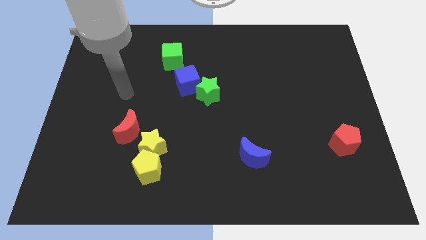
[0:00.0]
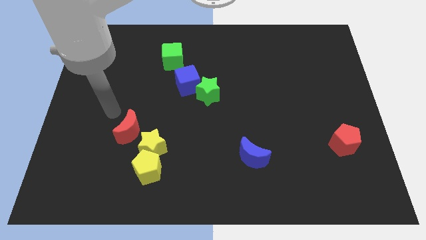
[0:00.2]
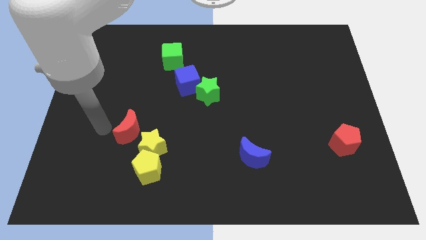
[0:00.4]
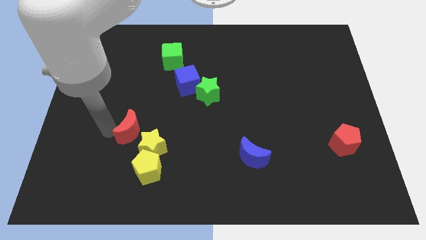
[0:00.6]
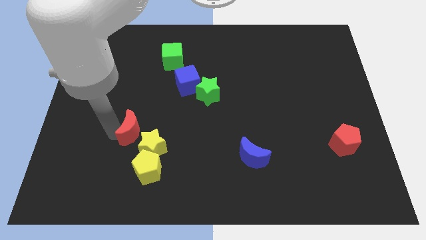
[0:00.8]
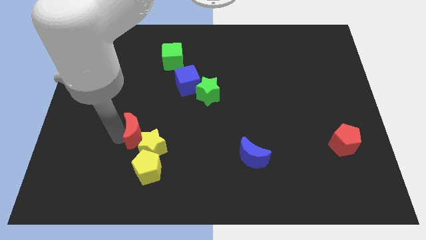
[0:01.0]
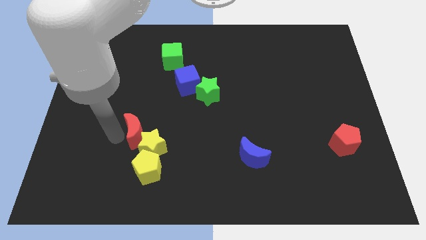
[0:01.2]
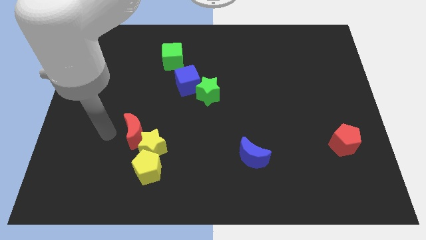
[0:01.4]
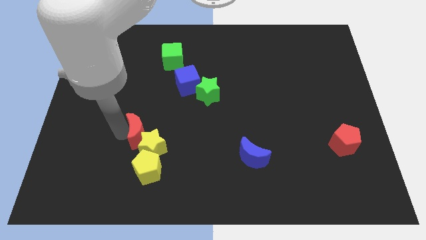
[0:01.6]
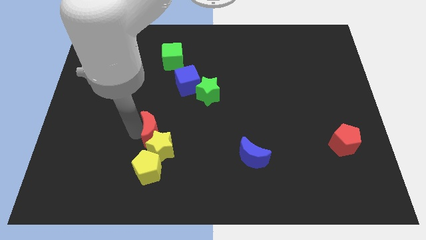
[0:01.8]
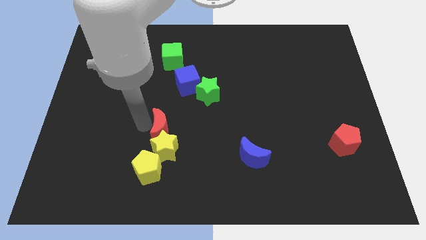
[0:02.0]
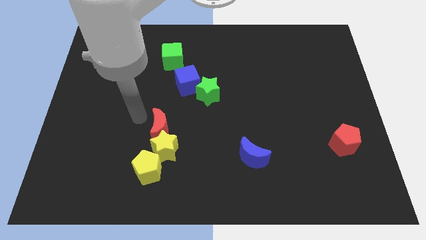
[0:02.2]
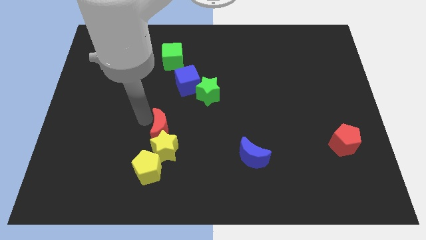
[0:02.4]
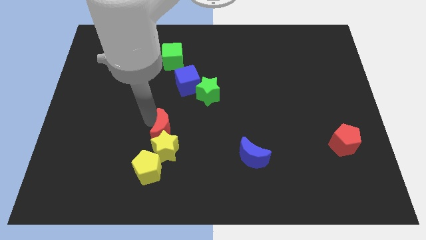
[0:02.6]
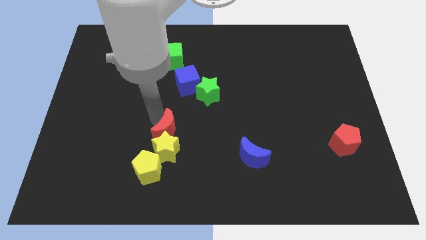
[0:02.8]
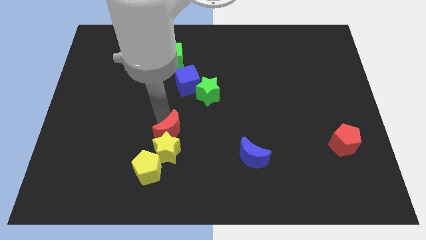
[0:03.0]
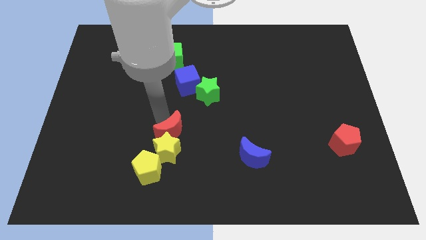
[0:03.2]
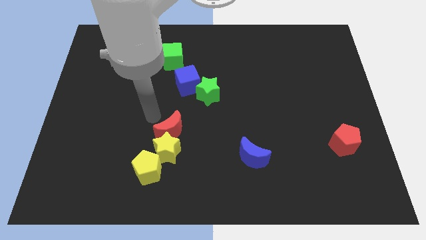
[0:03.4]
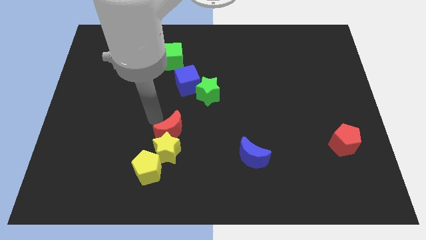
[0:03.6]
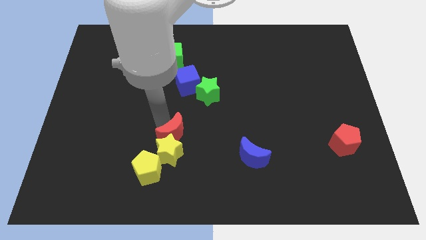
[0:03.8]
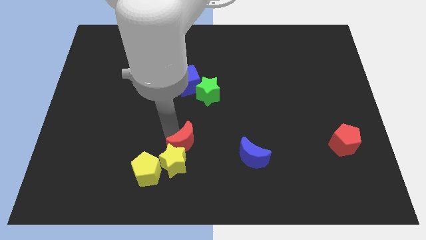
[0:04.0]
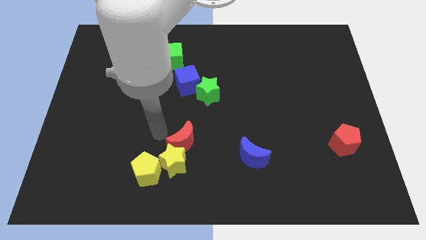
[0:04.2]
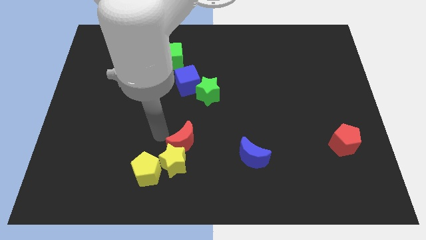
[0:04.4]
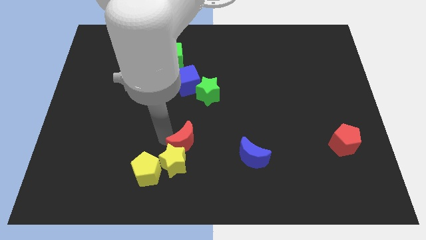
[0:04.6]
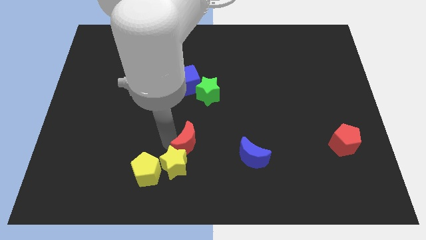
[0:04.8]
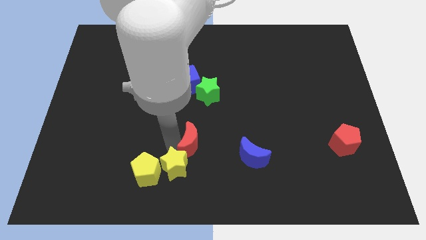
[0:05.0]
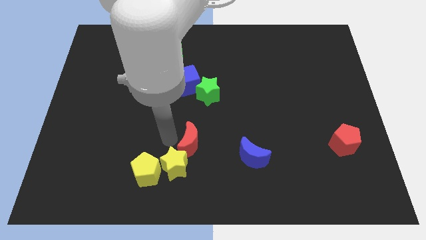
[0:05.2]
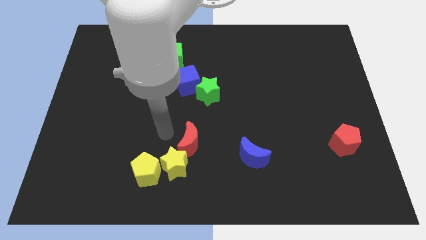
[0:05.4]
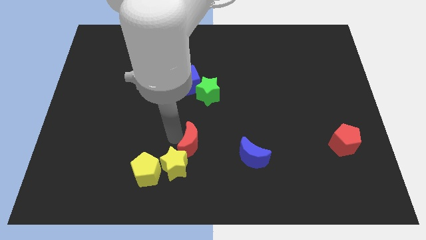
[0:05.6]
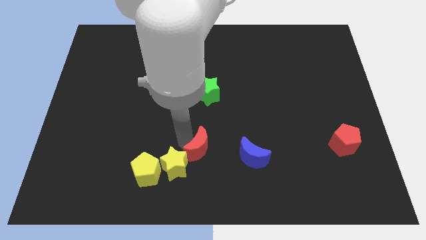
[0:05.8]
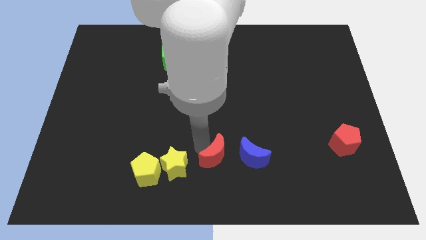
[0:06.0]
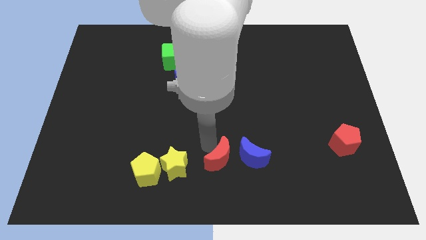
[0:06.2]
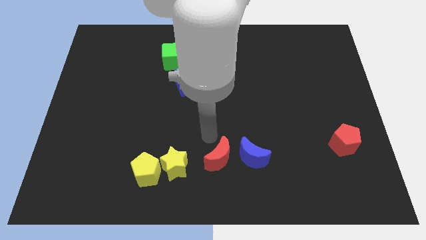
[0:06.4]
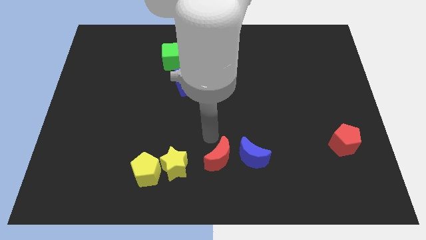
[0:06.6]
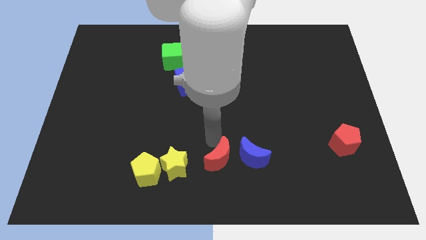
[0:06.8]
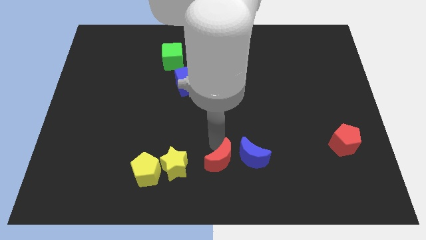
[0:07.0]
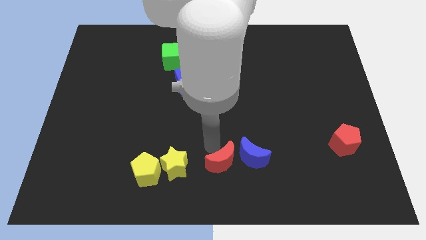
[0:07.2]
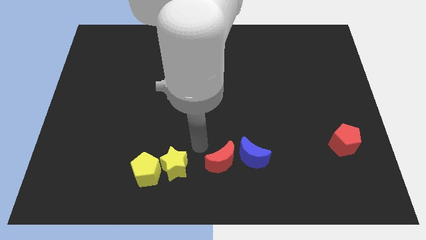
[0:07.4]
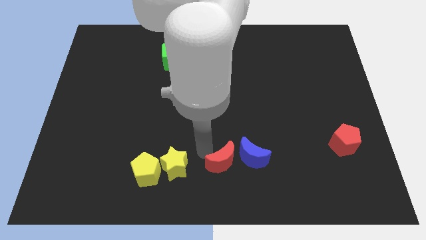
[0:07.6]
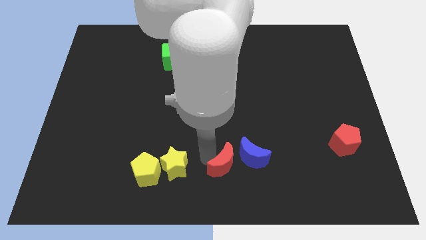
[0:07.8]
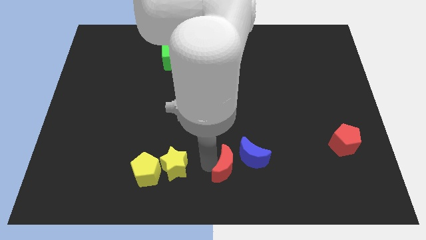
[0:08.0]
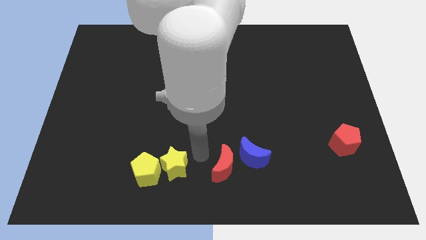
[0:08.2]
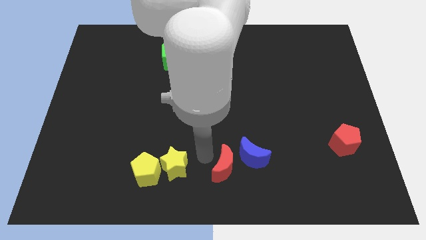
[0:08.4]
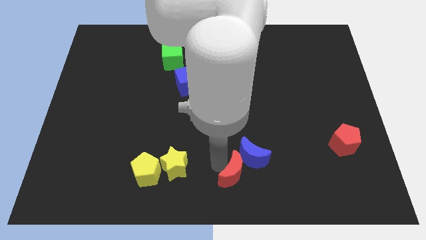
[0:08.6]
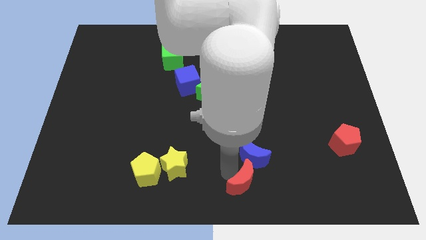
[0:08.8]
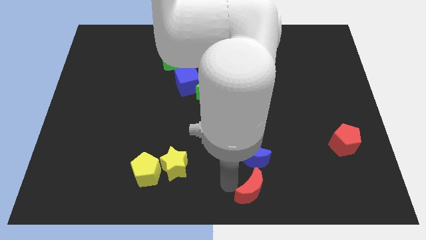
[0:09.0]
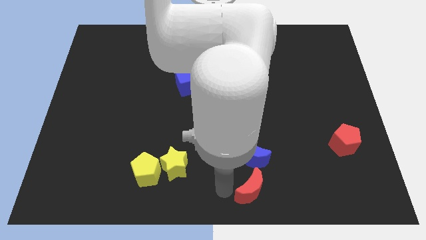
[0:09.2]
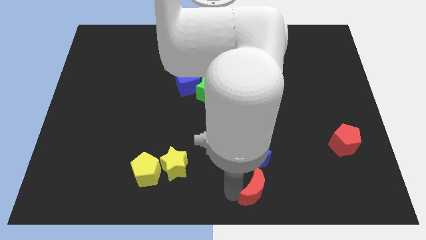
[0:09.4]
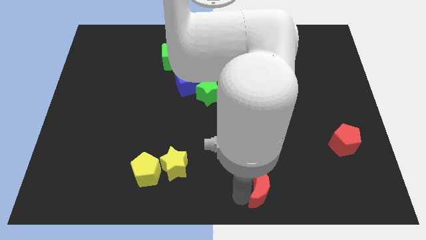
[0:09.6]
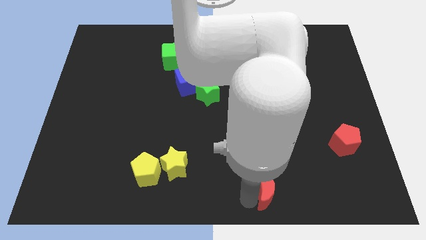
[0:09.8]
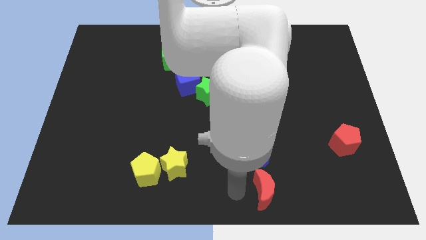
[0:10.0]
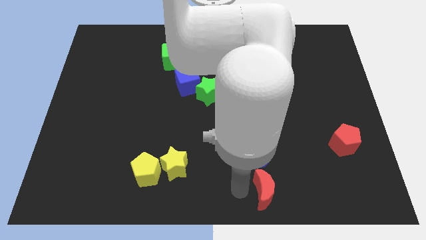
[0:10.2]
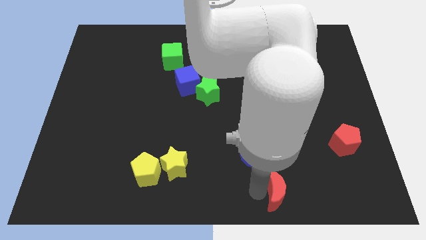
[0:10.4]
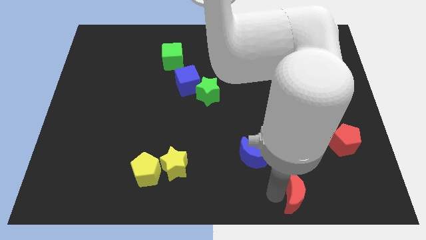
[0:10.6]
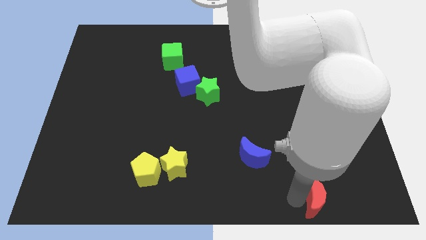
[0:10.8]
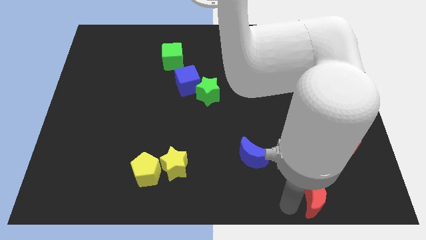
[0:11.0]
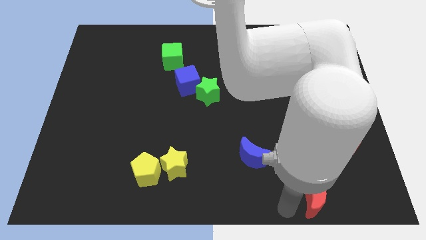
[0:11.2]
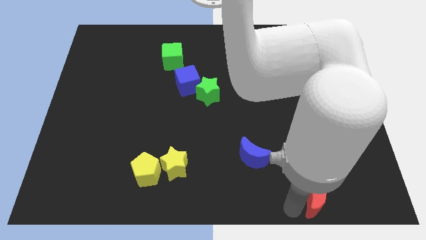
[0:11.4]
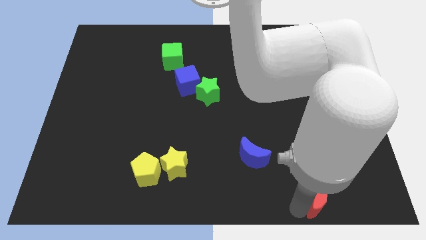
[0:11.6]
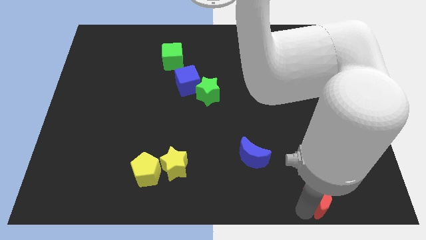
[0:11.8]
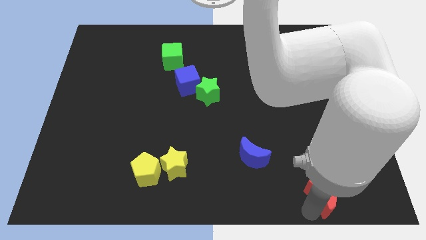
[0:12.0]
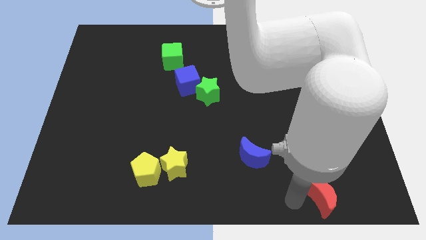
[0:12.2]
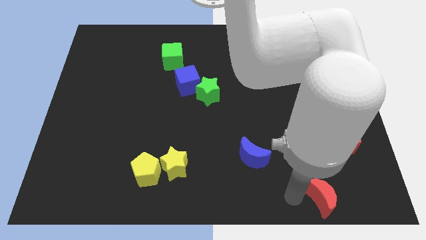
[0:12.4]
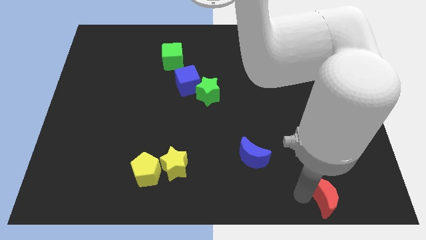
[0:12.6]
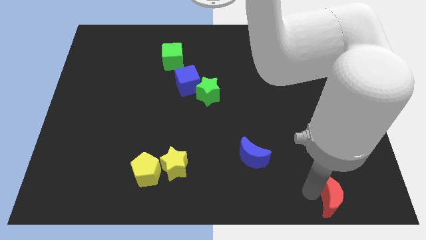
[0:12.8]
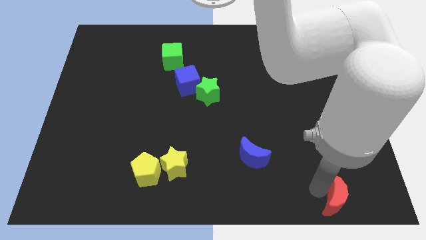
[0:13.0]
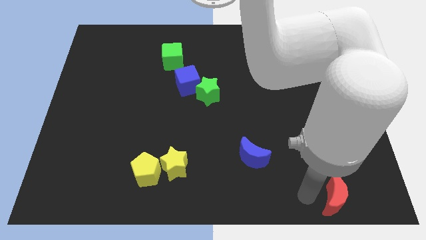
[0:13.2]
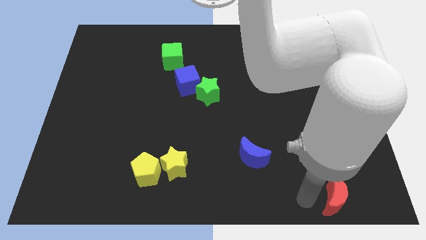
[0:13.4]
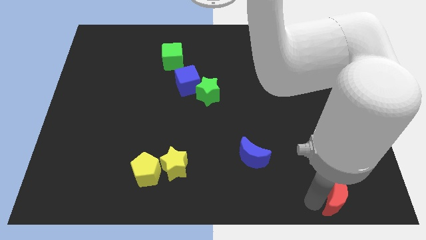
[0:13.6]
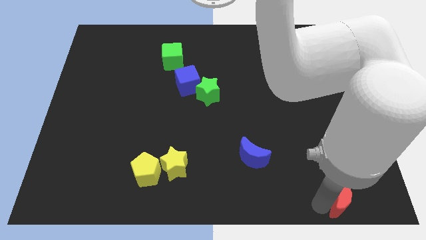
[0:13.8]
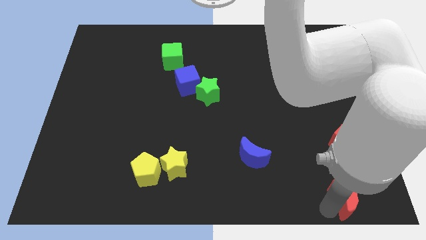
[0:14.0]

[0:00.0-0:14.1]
slide the red moon to the lower right corner
